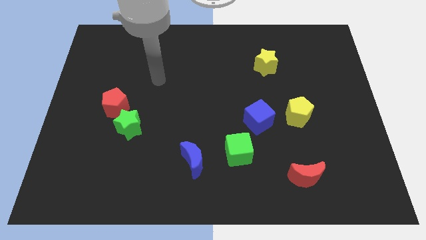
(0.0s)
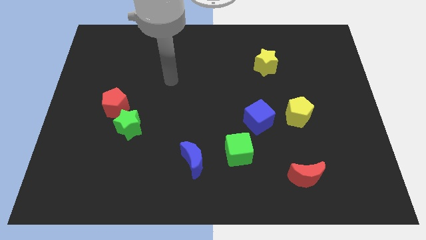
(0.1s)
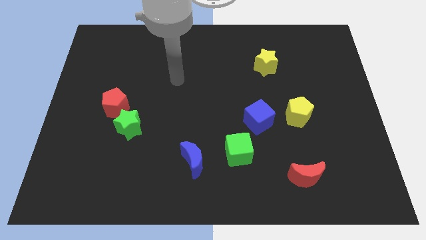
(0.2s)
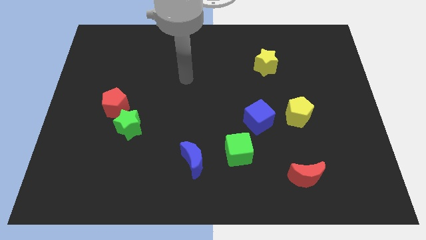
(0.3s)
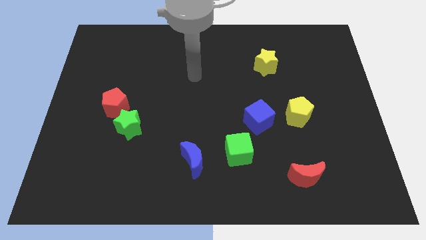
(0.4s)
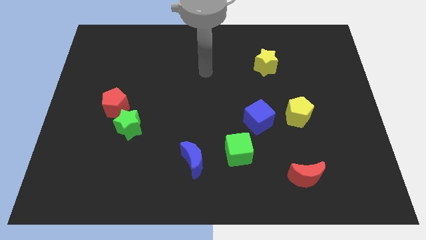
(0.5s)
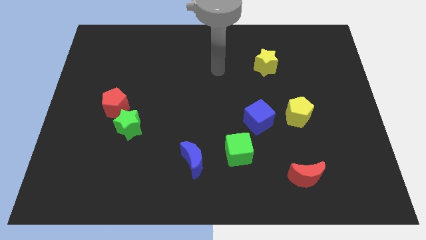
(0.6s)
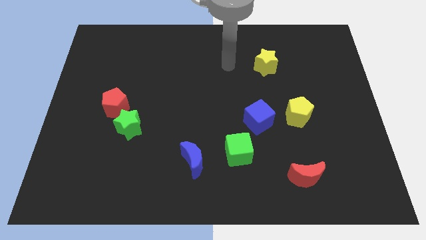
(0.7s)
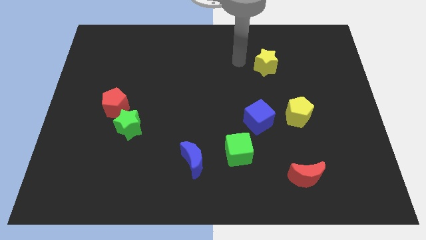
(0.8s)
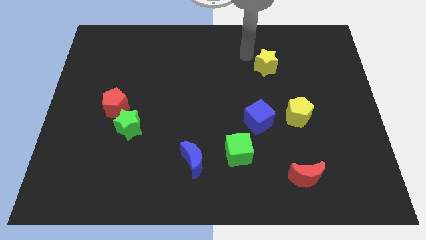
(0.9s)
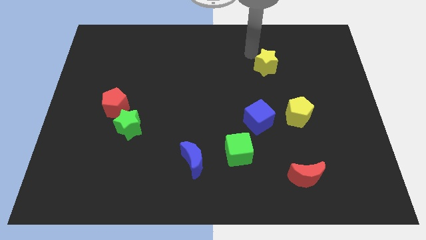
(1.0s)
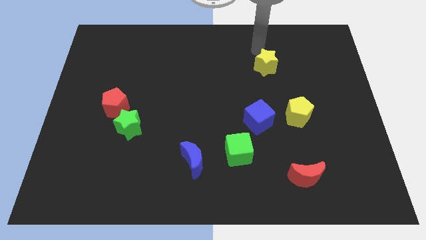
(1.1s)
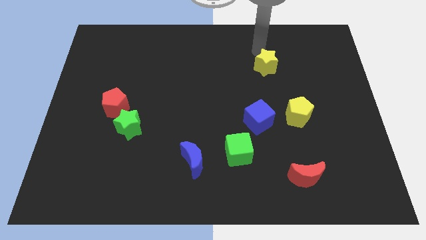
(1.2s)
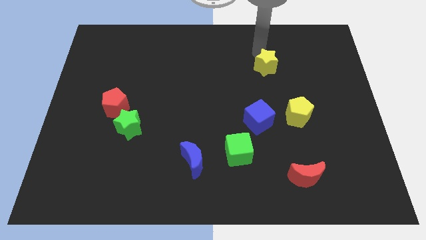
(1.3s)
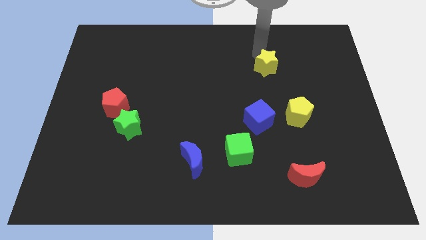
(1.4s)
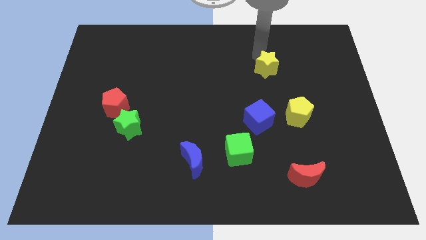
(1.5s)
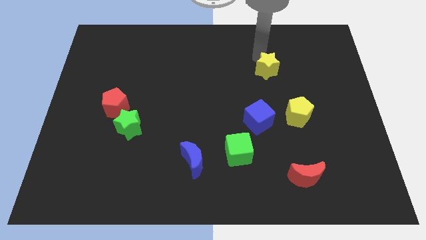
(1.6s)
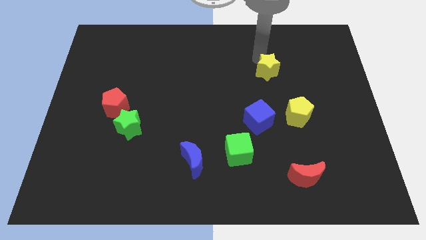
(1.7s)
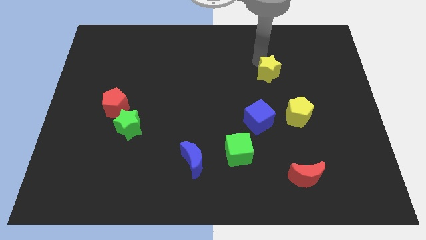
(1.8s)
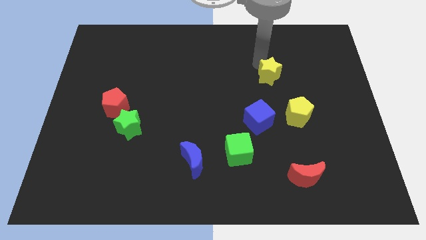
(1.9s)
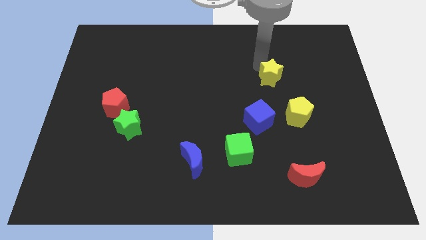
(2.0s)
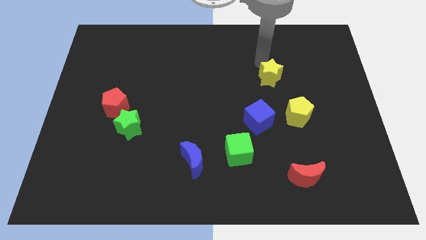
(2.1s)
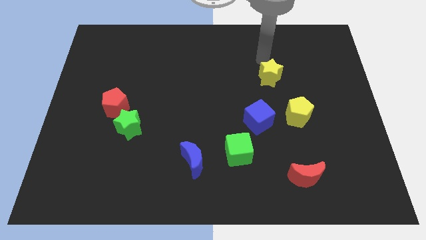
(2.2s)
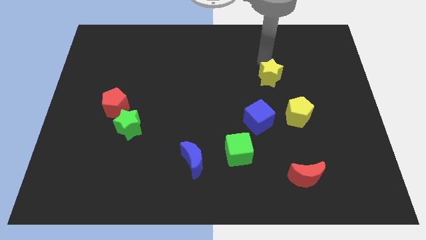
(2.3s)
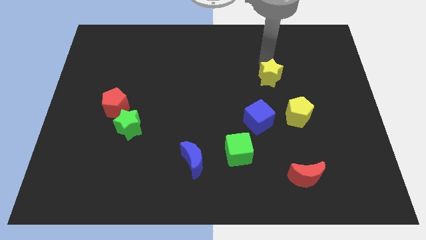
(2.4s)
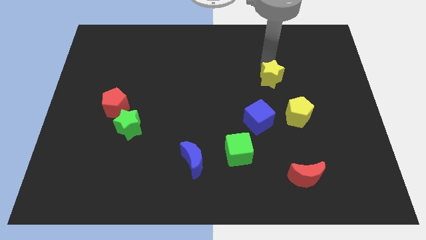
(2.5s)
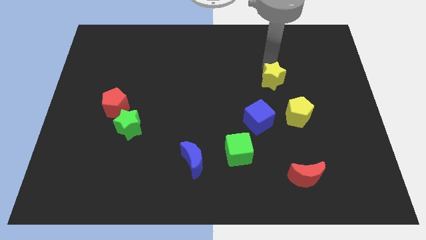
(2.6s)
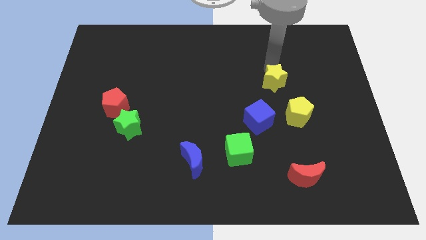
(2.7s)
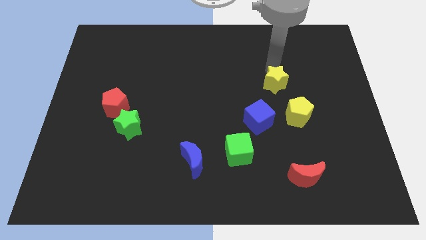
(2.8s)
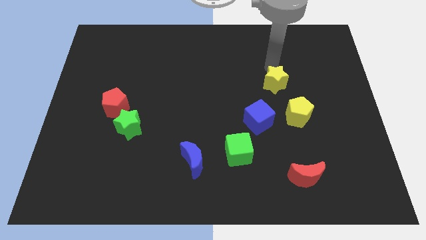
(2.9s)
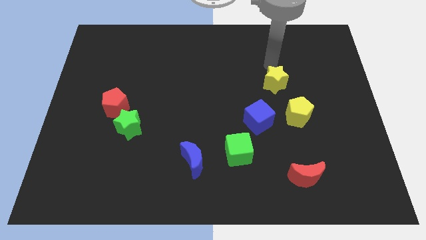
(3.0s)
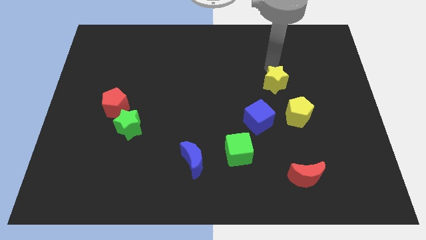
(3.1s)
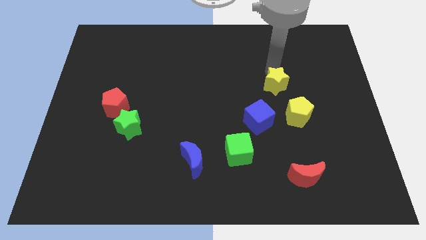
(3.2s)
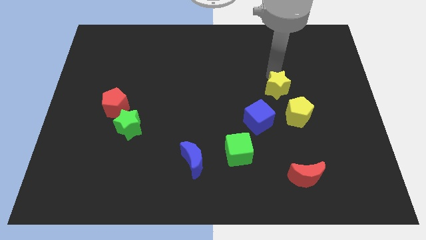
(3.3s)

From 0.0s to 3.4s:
move the yellow star downwards slightly

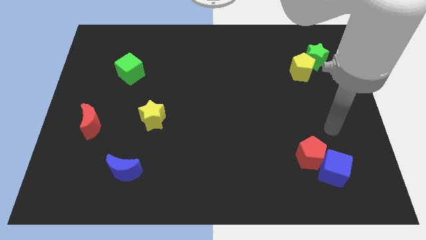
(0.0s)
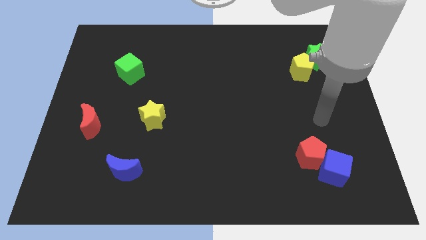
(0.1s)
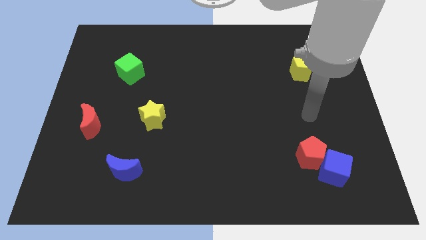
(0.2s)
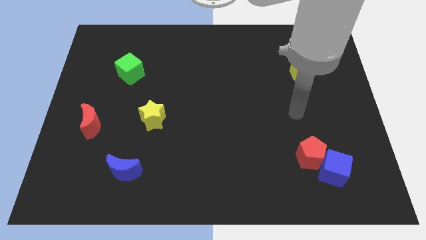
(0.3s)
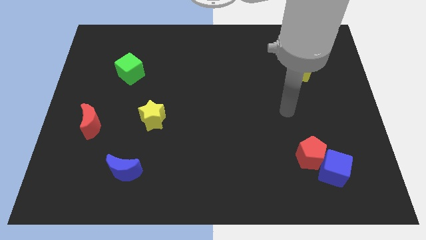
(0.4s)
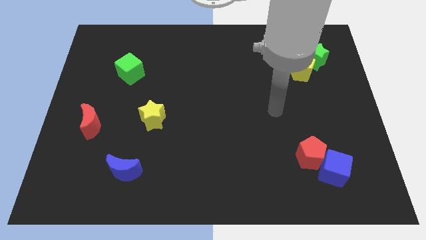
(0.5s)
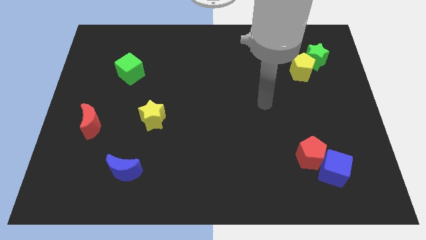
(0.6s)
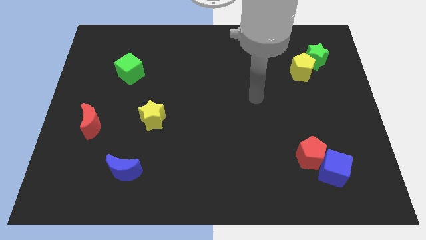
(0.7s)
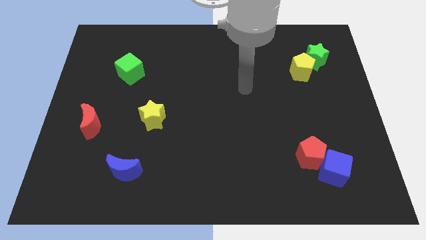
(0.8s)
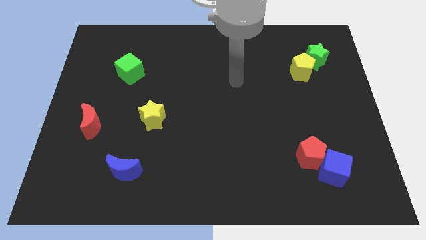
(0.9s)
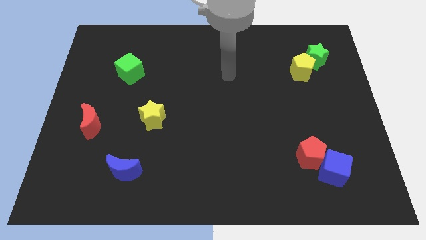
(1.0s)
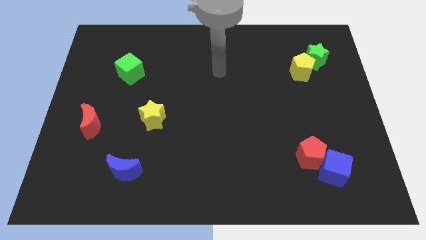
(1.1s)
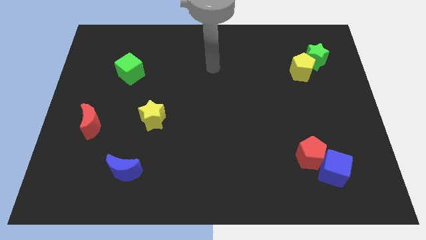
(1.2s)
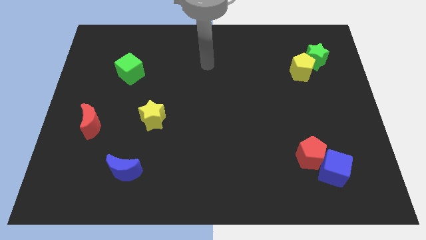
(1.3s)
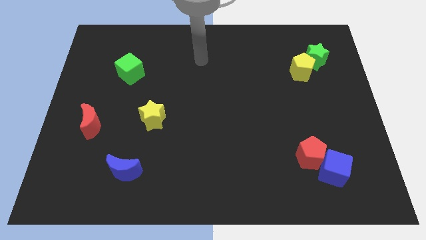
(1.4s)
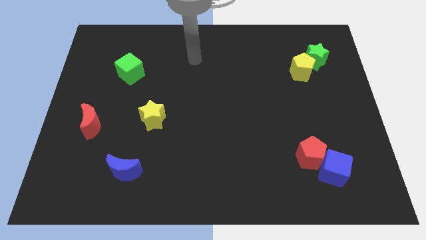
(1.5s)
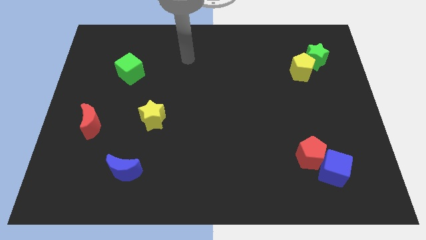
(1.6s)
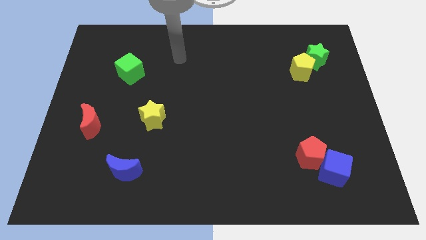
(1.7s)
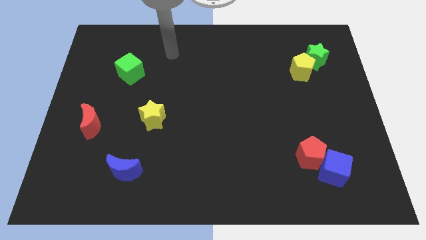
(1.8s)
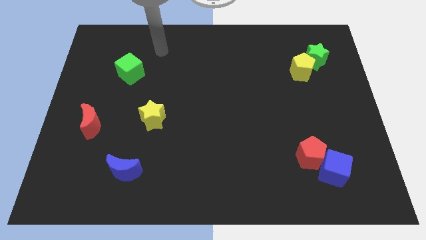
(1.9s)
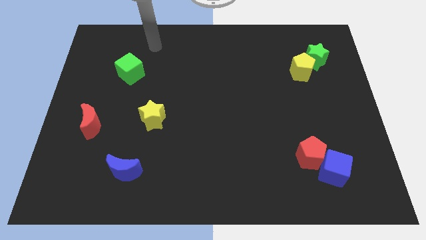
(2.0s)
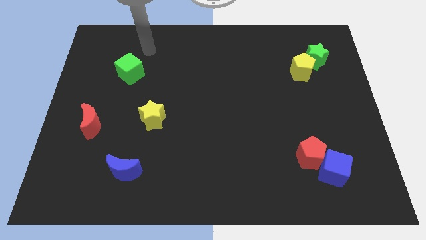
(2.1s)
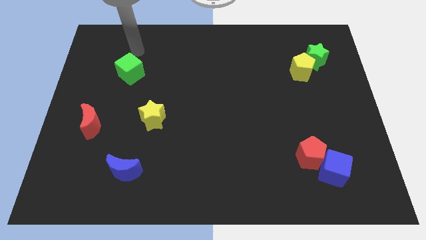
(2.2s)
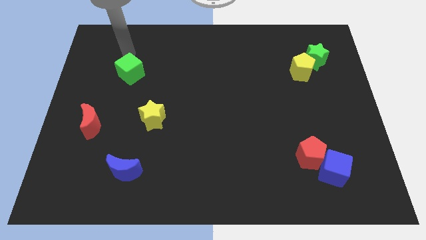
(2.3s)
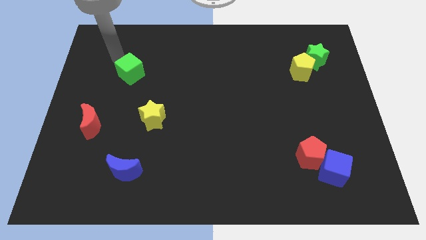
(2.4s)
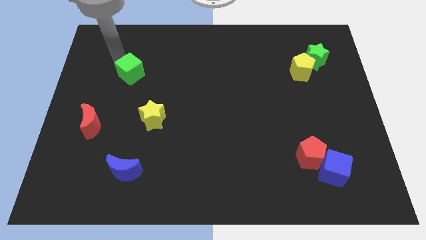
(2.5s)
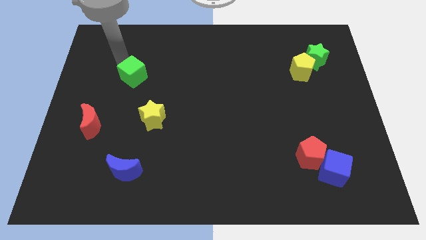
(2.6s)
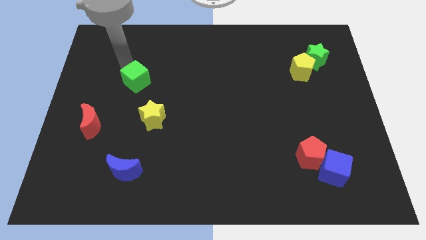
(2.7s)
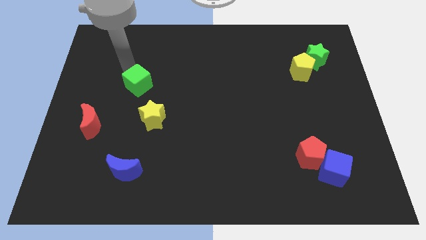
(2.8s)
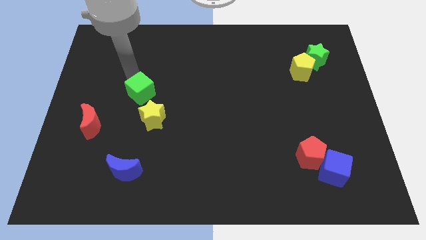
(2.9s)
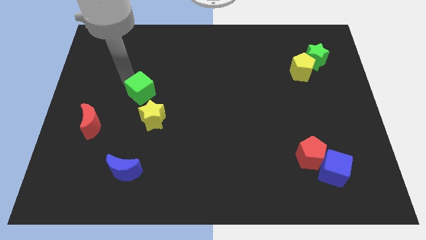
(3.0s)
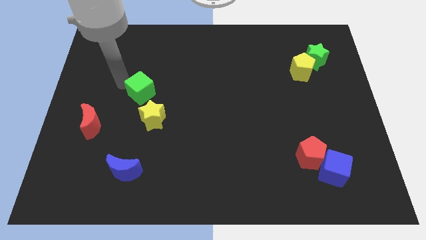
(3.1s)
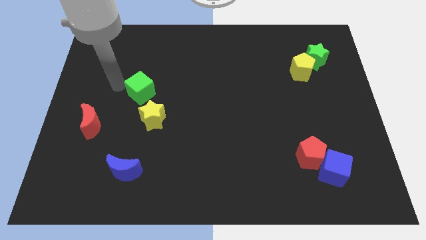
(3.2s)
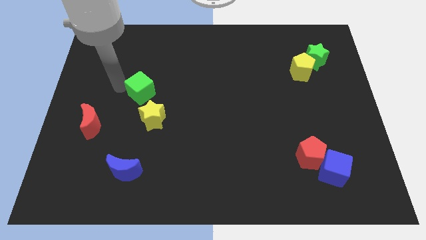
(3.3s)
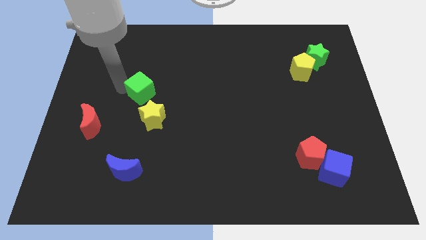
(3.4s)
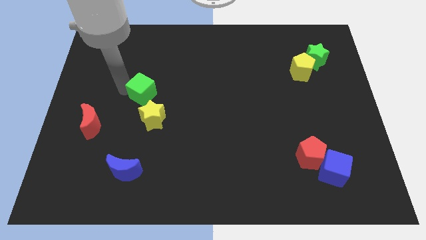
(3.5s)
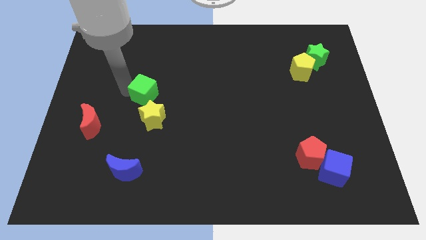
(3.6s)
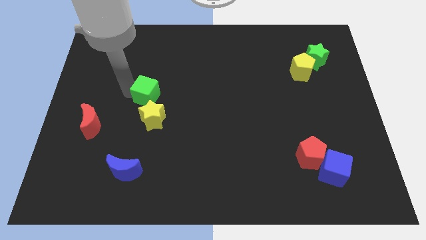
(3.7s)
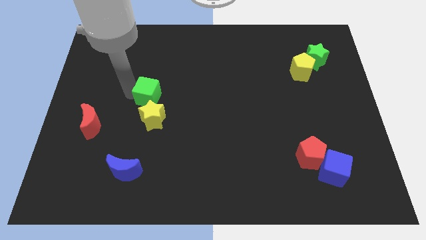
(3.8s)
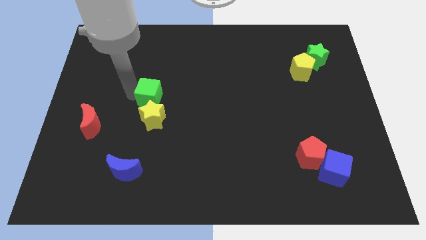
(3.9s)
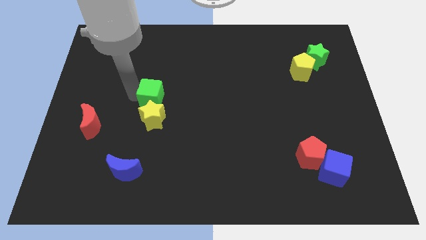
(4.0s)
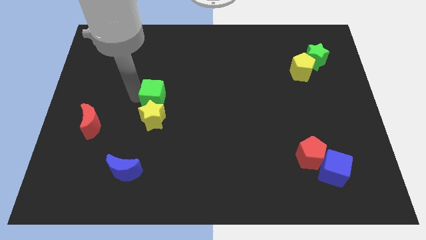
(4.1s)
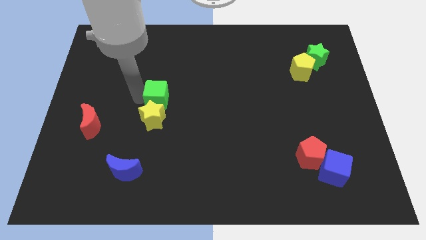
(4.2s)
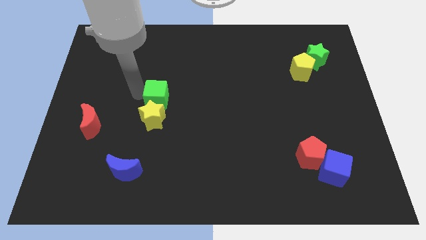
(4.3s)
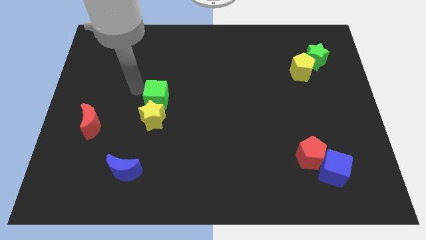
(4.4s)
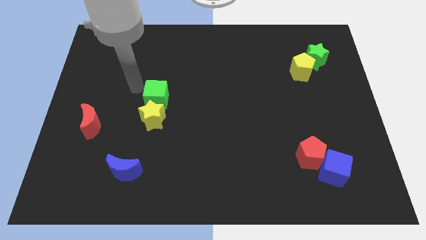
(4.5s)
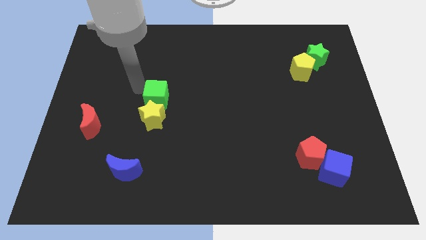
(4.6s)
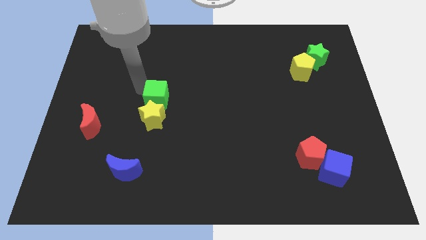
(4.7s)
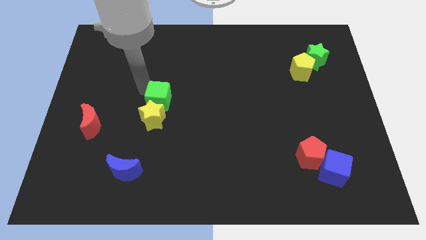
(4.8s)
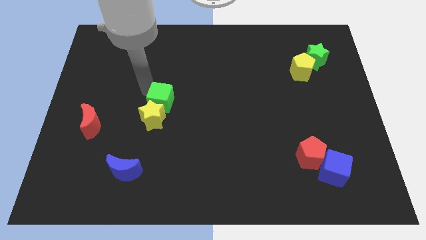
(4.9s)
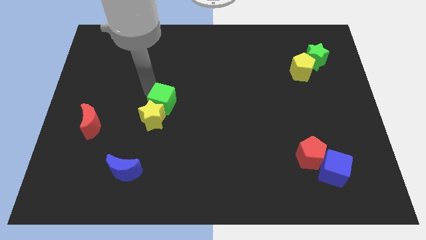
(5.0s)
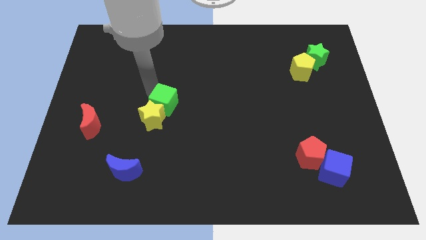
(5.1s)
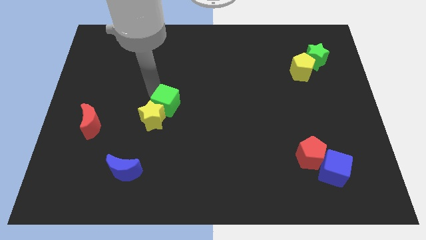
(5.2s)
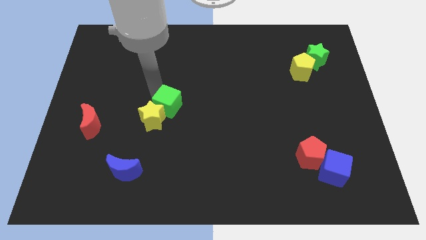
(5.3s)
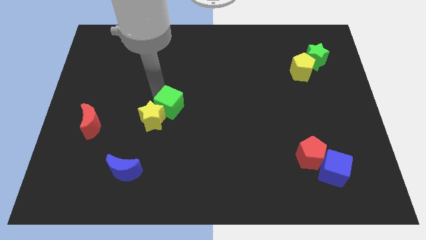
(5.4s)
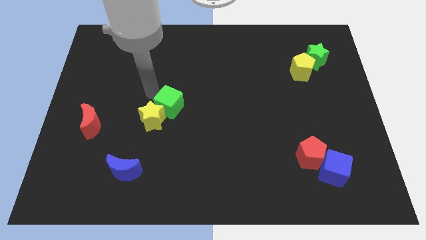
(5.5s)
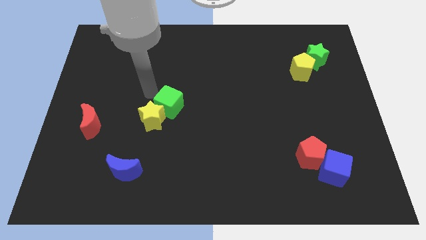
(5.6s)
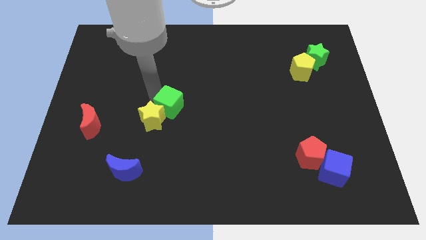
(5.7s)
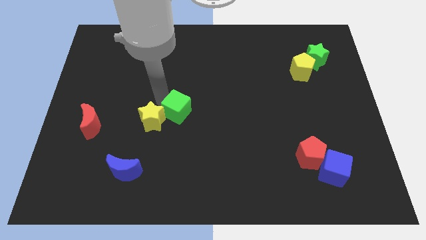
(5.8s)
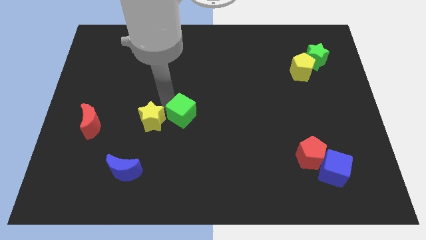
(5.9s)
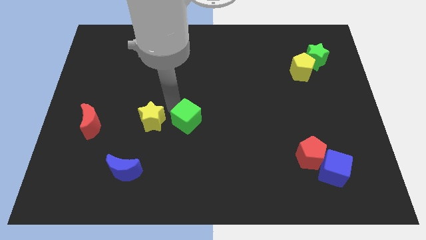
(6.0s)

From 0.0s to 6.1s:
move the green cube down and right diagonally
